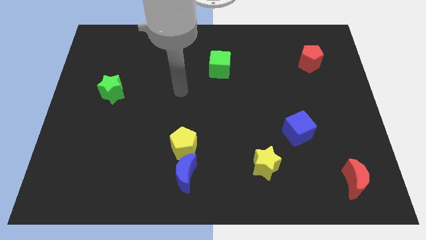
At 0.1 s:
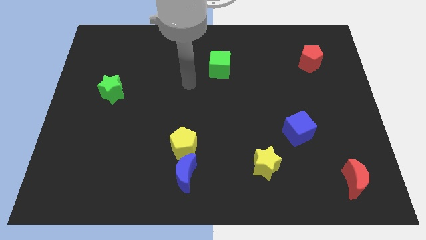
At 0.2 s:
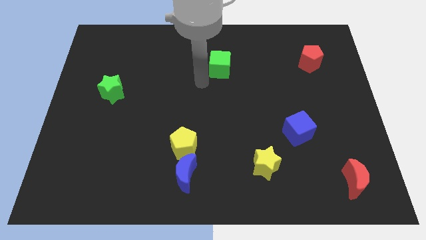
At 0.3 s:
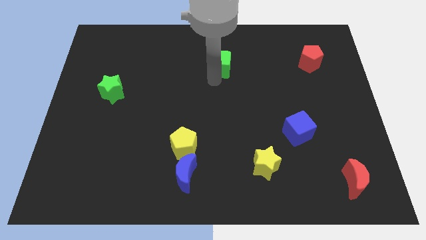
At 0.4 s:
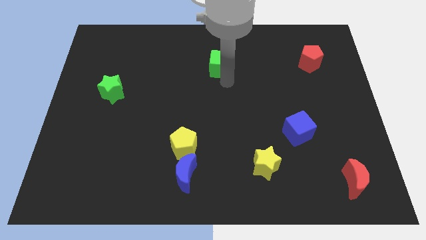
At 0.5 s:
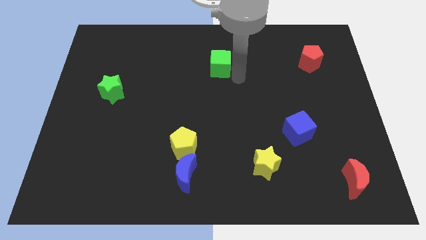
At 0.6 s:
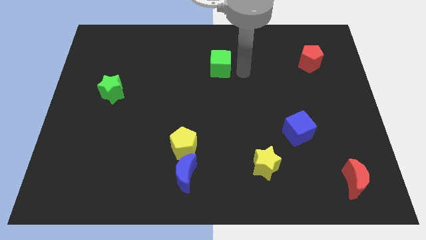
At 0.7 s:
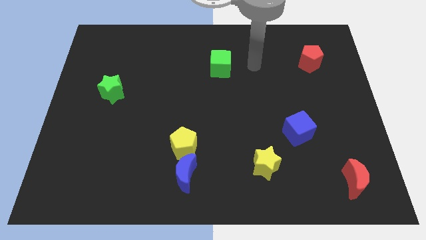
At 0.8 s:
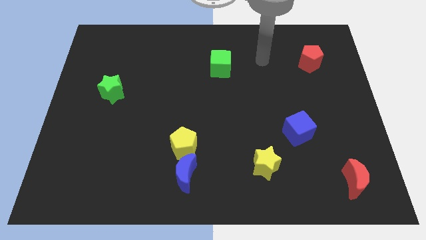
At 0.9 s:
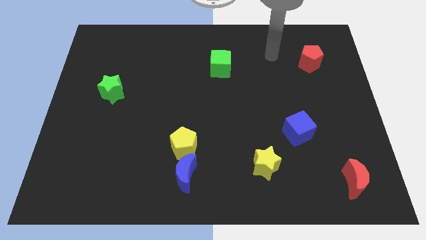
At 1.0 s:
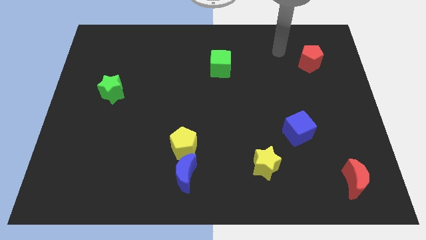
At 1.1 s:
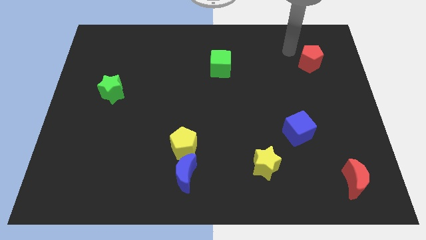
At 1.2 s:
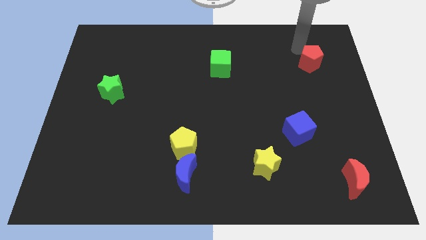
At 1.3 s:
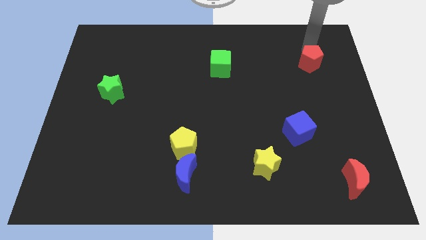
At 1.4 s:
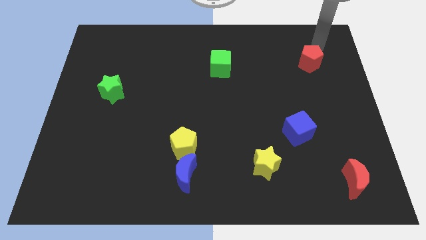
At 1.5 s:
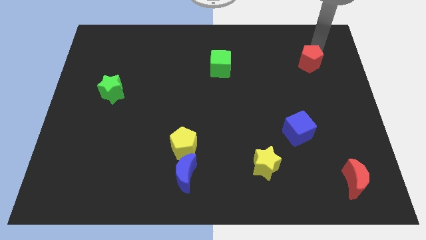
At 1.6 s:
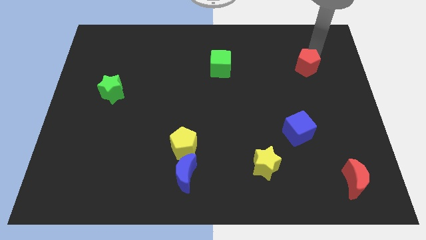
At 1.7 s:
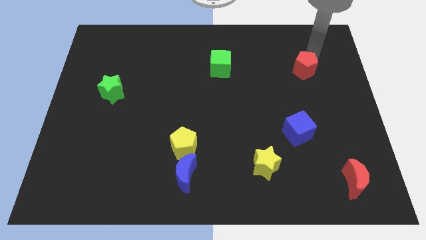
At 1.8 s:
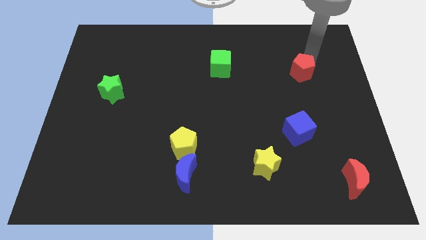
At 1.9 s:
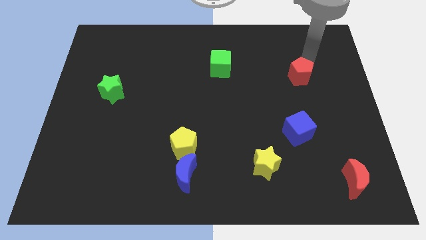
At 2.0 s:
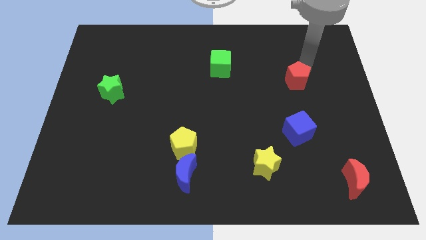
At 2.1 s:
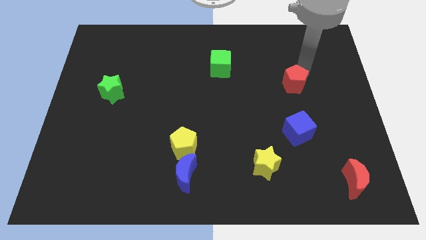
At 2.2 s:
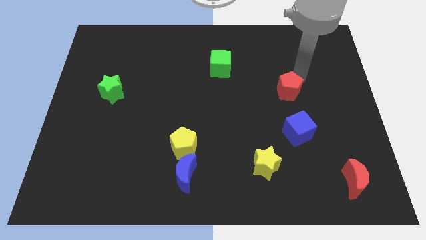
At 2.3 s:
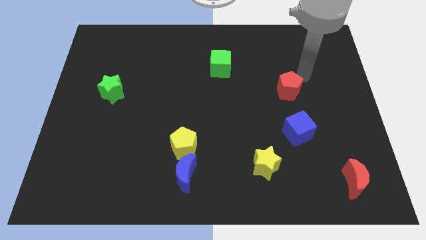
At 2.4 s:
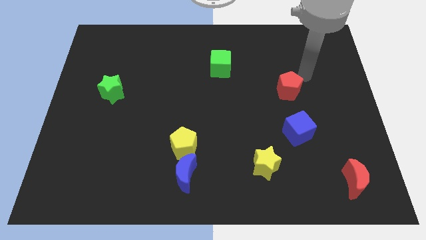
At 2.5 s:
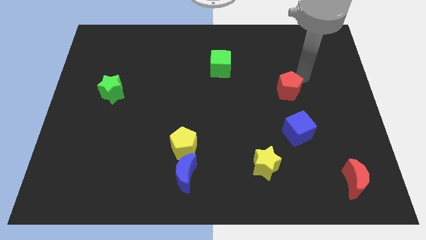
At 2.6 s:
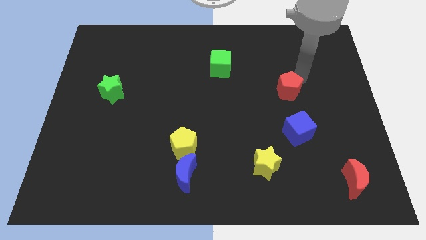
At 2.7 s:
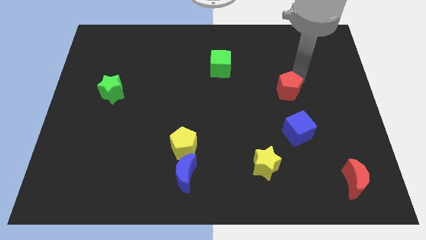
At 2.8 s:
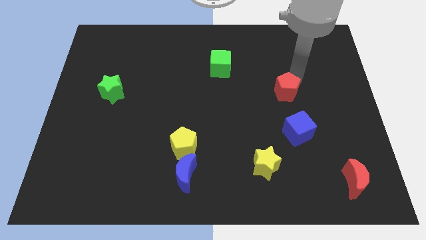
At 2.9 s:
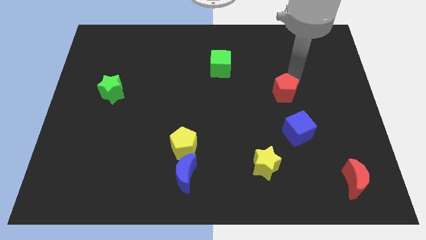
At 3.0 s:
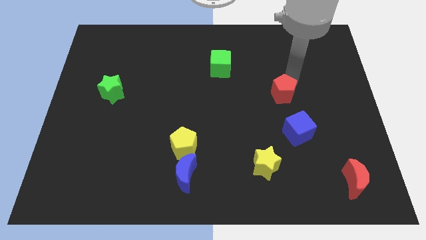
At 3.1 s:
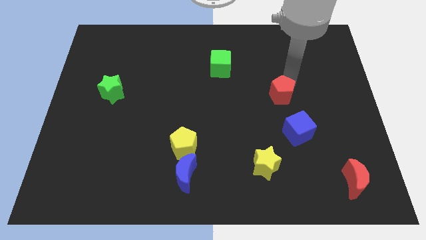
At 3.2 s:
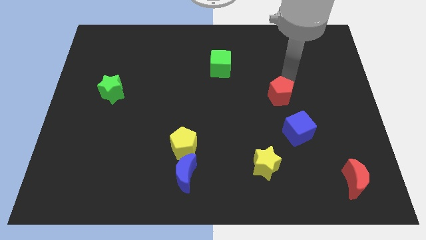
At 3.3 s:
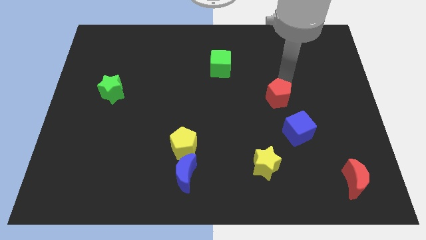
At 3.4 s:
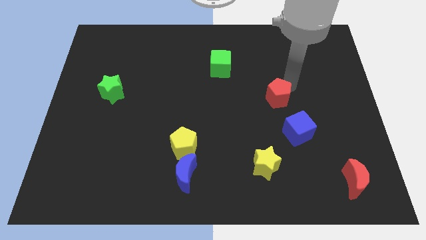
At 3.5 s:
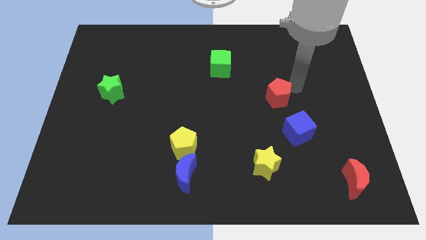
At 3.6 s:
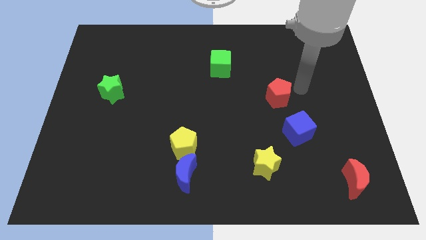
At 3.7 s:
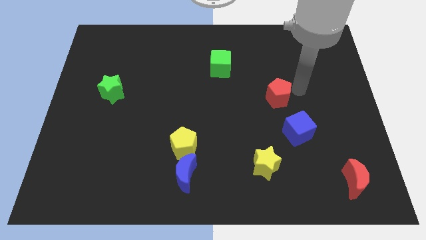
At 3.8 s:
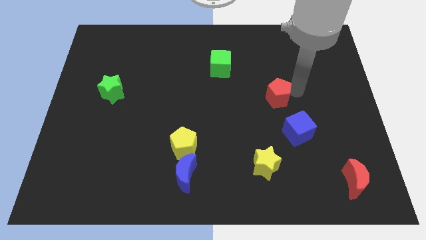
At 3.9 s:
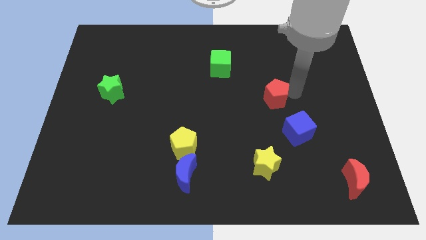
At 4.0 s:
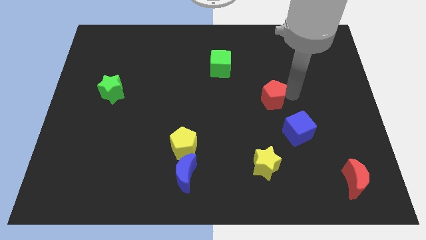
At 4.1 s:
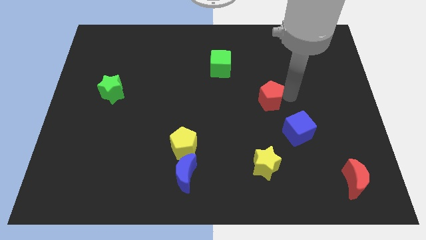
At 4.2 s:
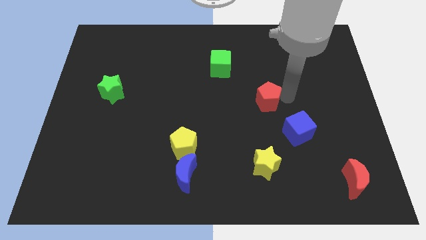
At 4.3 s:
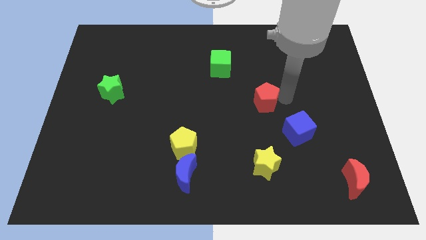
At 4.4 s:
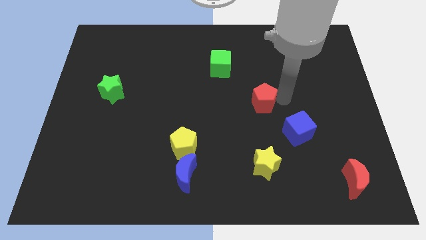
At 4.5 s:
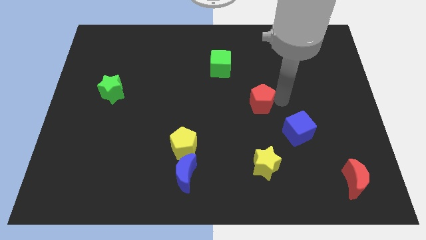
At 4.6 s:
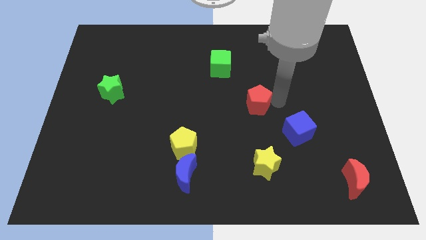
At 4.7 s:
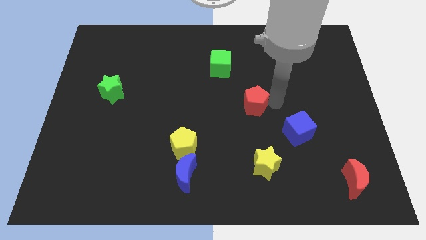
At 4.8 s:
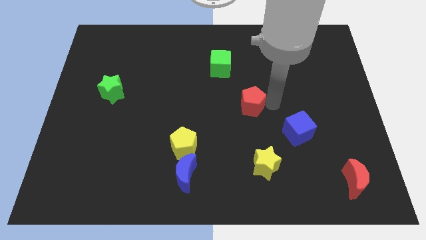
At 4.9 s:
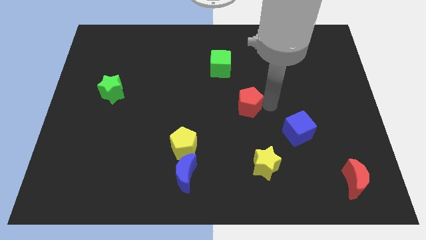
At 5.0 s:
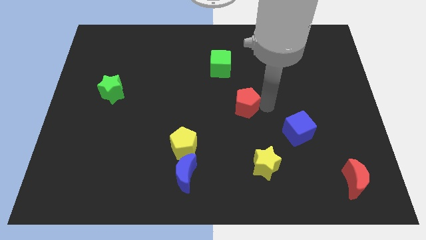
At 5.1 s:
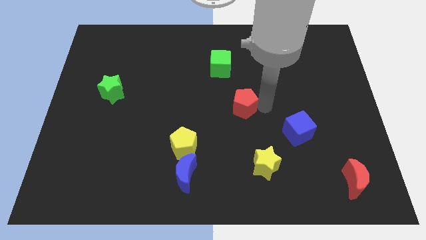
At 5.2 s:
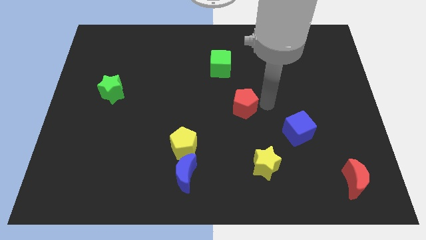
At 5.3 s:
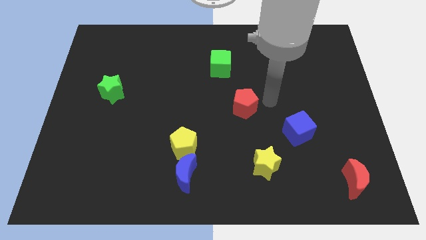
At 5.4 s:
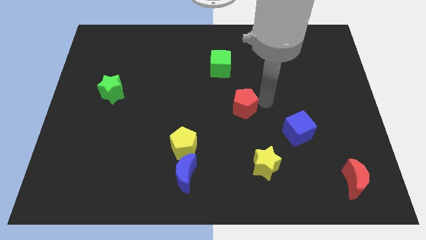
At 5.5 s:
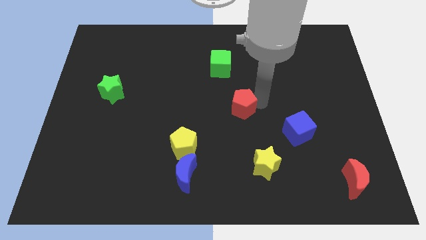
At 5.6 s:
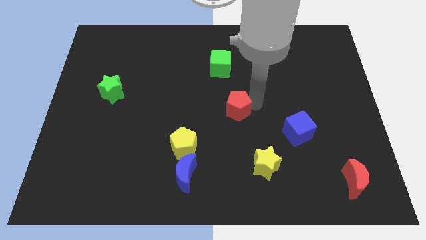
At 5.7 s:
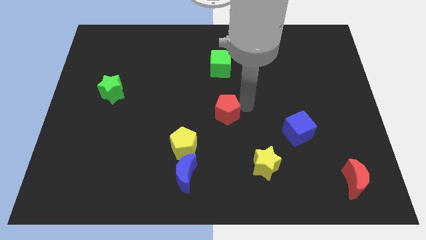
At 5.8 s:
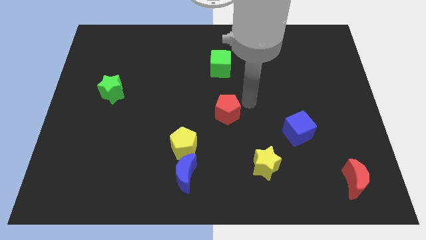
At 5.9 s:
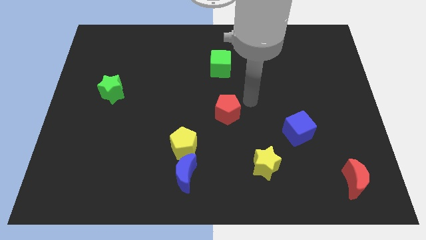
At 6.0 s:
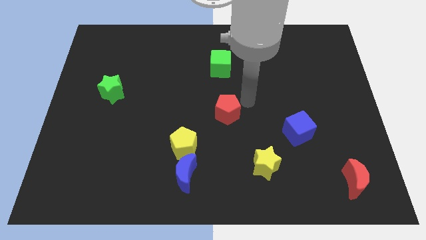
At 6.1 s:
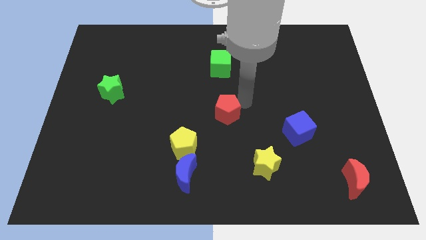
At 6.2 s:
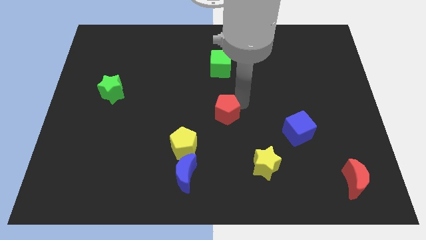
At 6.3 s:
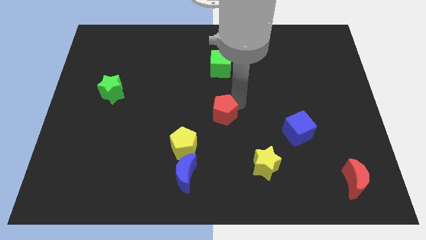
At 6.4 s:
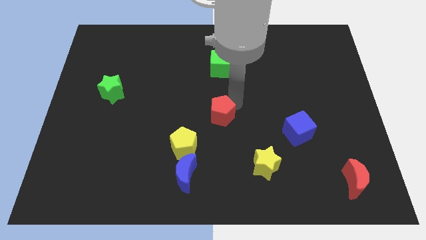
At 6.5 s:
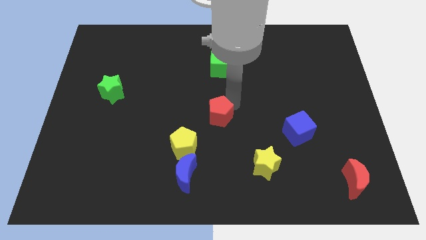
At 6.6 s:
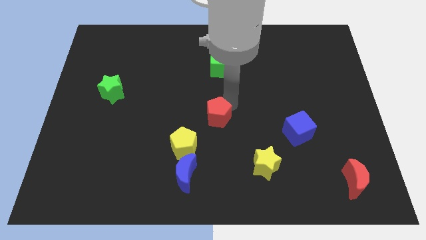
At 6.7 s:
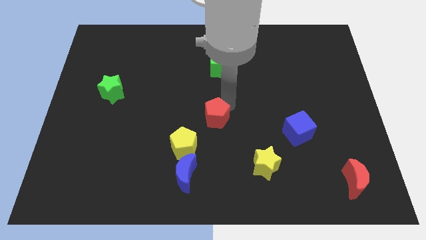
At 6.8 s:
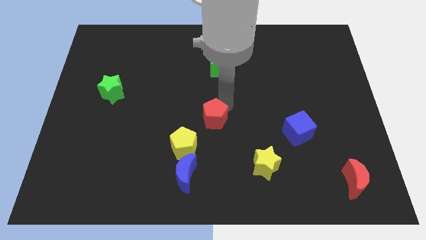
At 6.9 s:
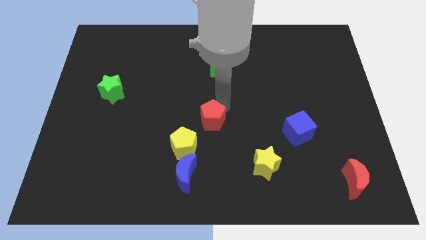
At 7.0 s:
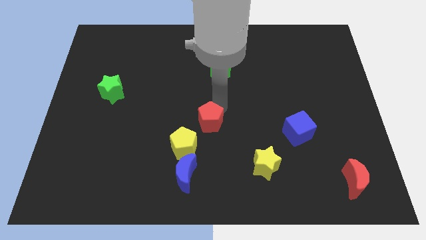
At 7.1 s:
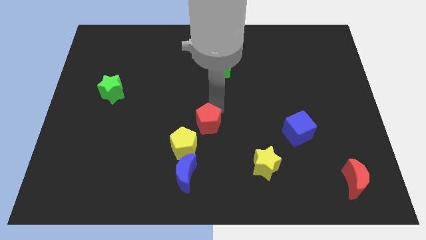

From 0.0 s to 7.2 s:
put the red pentagon to the top side of the blue moon
